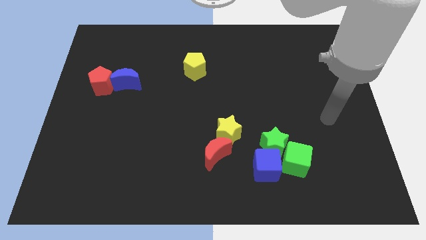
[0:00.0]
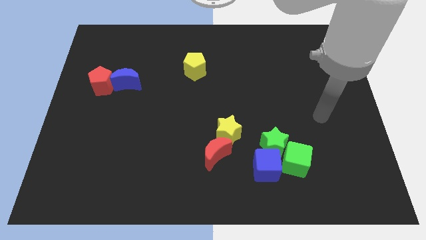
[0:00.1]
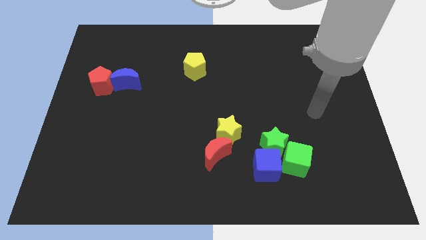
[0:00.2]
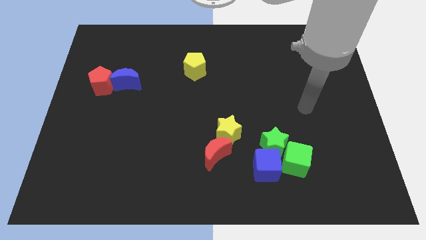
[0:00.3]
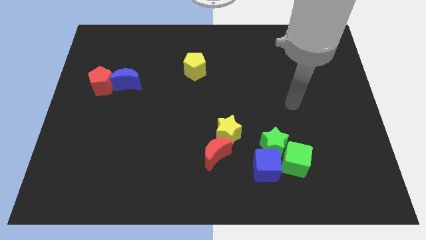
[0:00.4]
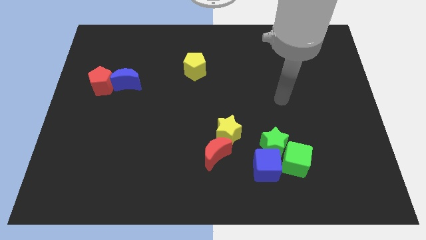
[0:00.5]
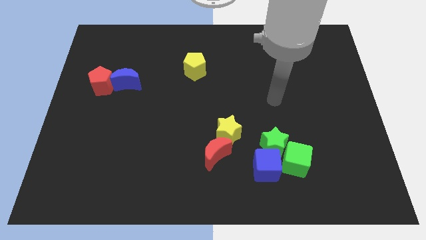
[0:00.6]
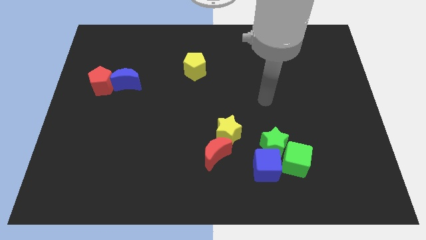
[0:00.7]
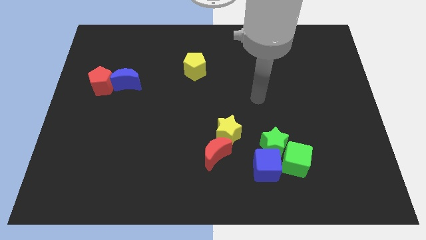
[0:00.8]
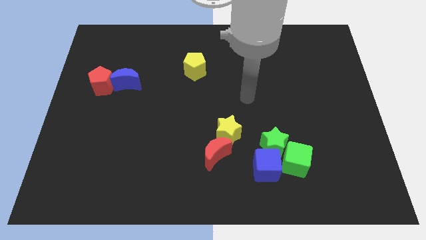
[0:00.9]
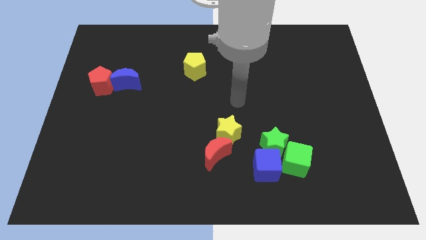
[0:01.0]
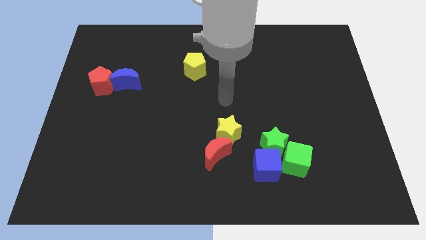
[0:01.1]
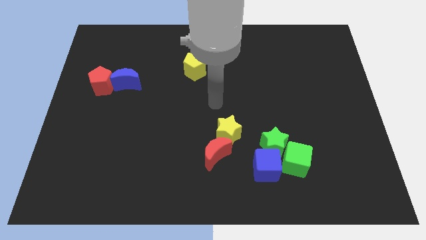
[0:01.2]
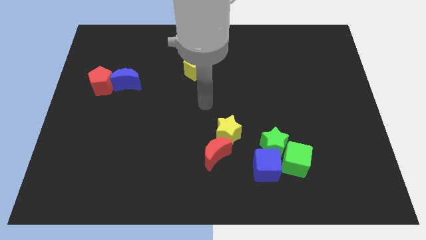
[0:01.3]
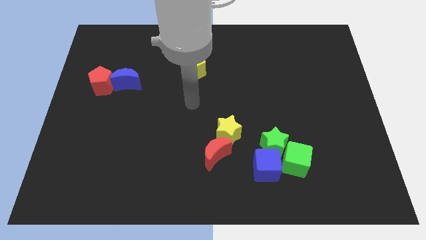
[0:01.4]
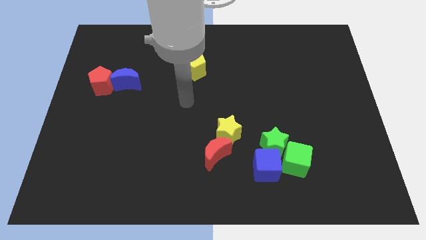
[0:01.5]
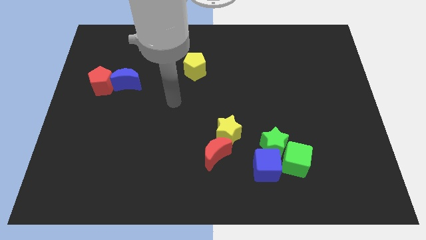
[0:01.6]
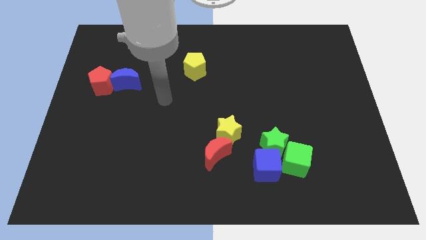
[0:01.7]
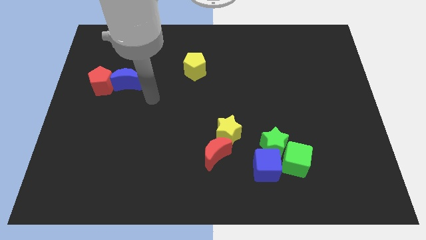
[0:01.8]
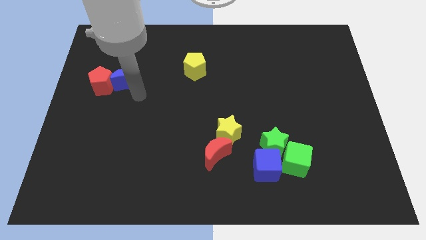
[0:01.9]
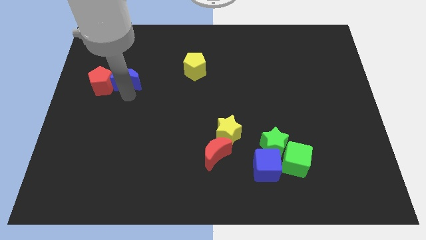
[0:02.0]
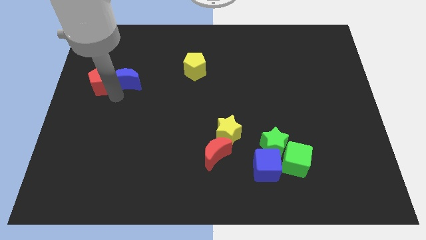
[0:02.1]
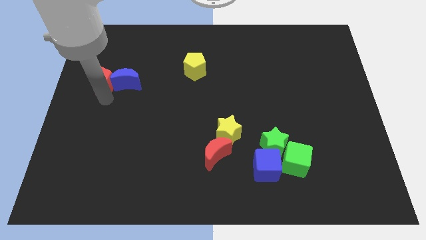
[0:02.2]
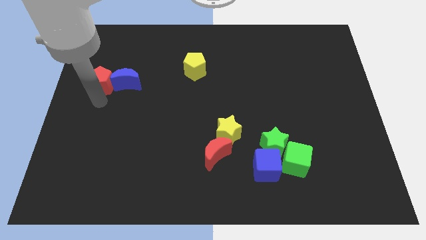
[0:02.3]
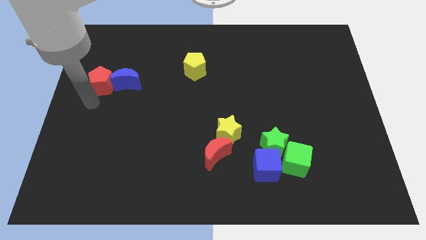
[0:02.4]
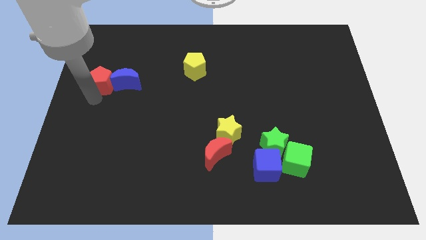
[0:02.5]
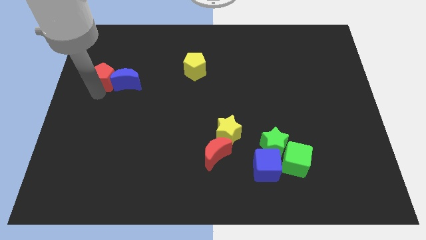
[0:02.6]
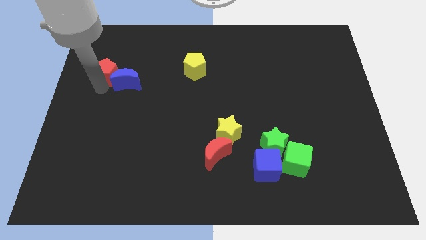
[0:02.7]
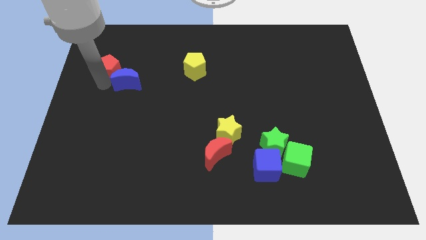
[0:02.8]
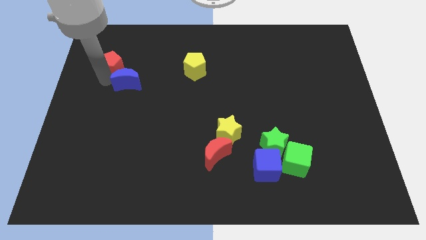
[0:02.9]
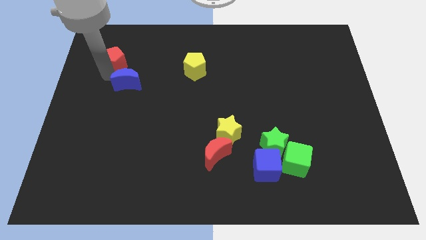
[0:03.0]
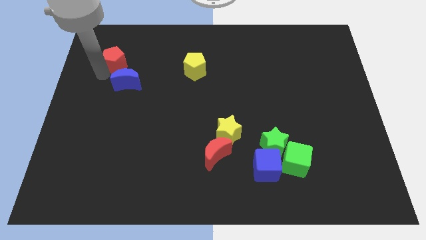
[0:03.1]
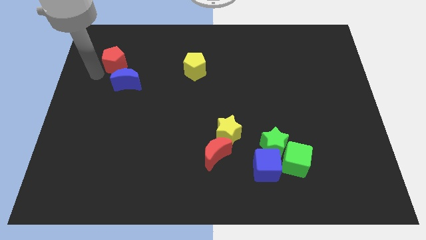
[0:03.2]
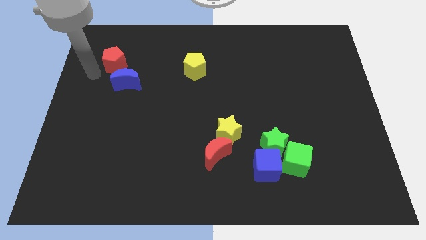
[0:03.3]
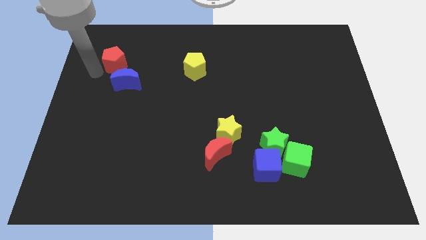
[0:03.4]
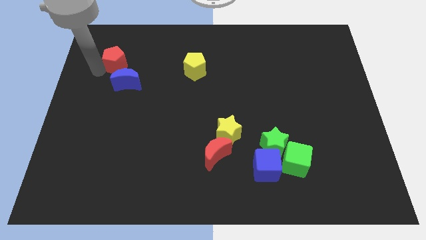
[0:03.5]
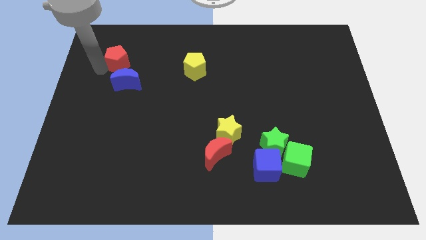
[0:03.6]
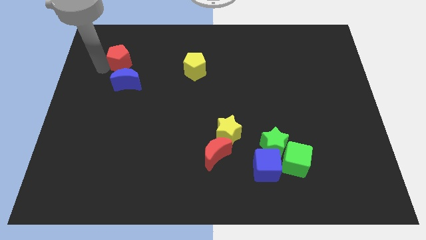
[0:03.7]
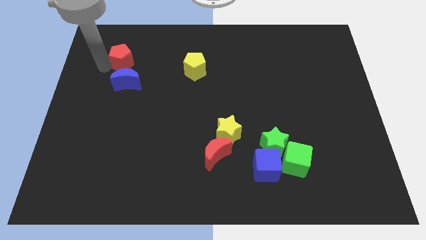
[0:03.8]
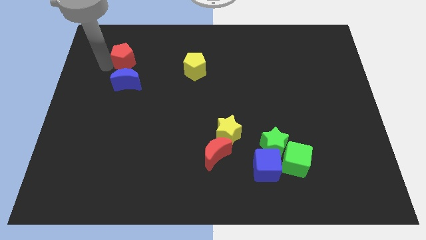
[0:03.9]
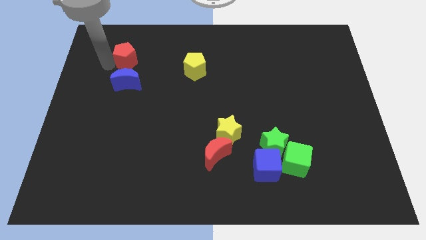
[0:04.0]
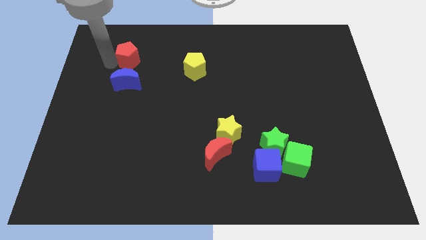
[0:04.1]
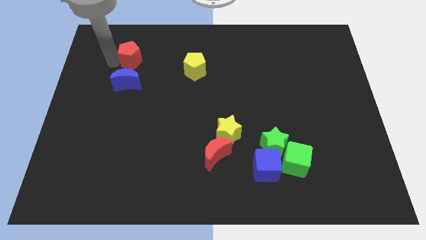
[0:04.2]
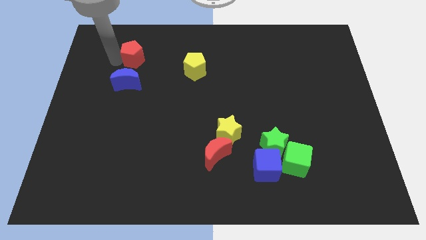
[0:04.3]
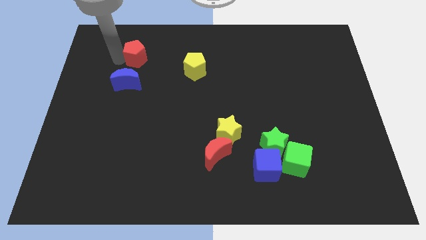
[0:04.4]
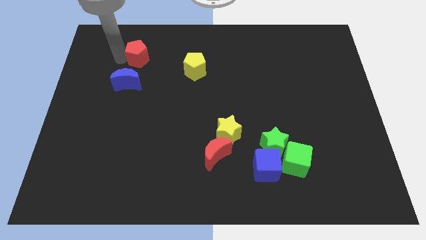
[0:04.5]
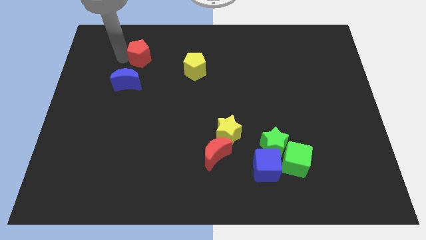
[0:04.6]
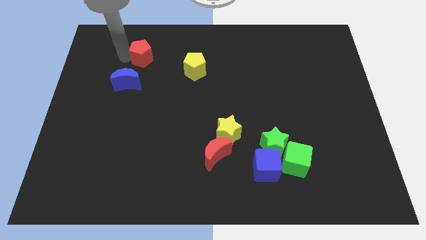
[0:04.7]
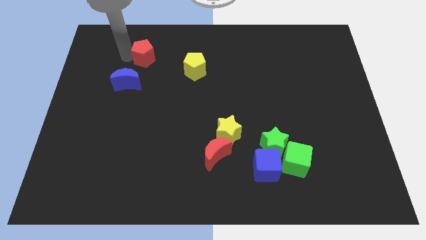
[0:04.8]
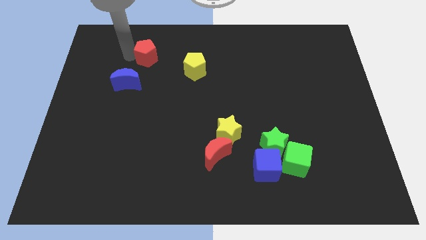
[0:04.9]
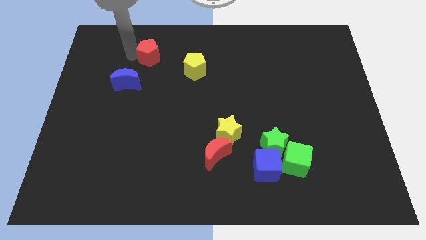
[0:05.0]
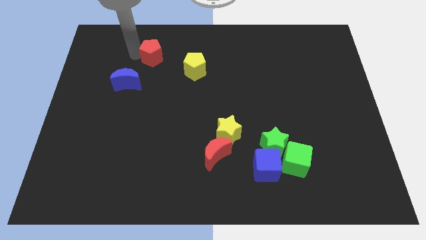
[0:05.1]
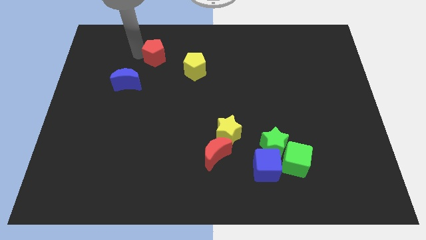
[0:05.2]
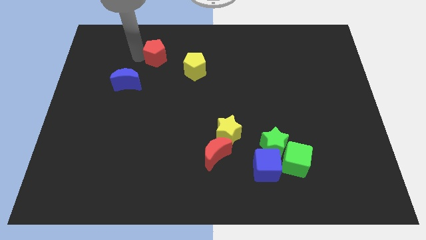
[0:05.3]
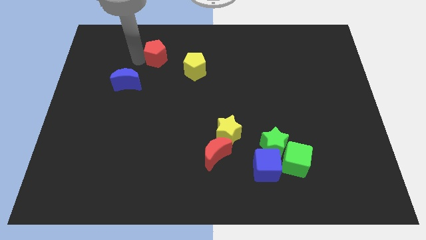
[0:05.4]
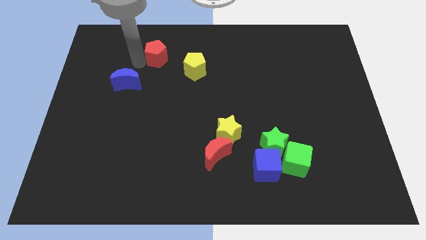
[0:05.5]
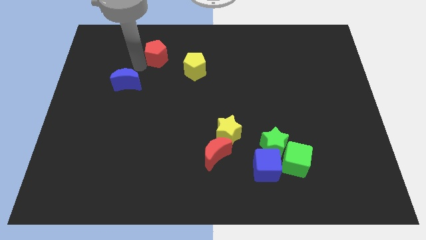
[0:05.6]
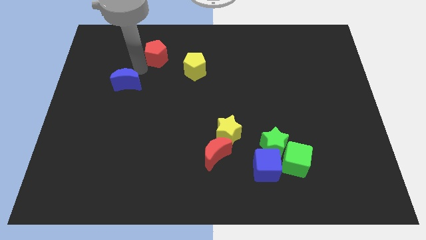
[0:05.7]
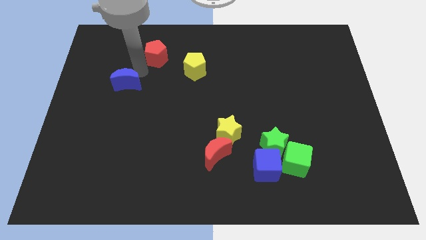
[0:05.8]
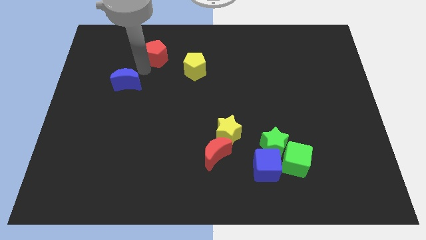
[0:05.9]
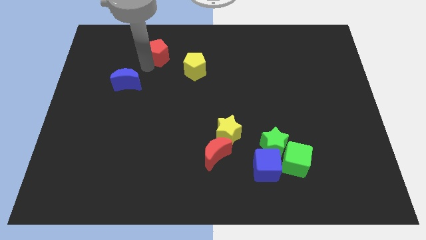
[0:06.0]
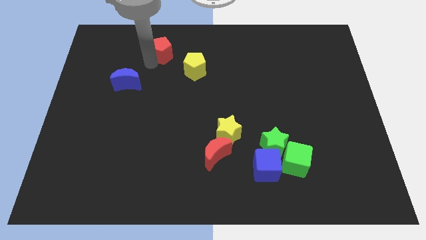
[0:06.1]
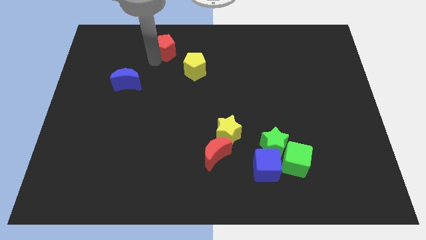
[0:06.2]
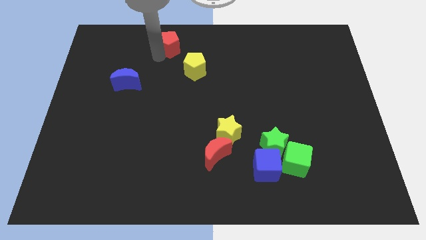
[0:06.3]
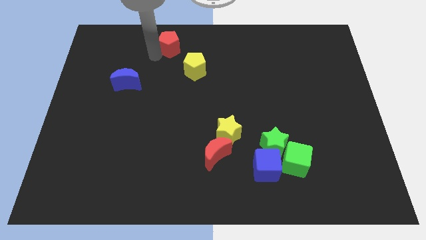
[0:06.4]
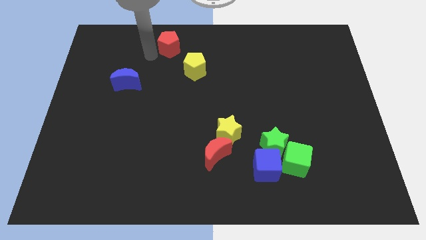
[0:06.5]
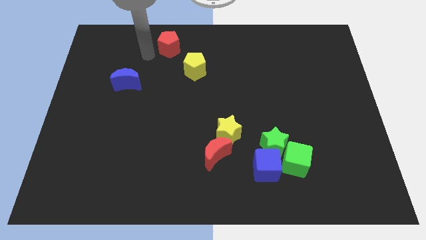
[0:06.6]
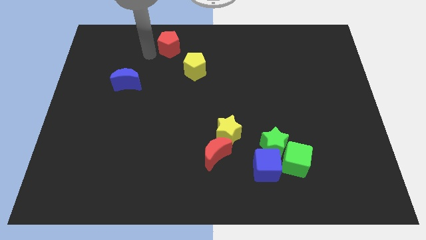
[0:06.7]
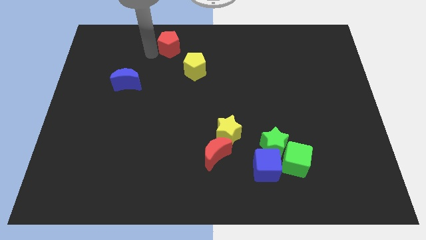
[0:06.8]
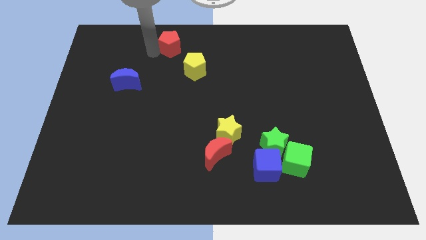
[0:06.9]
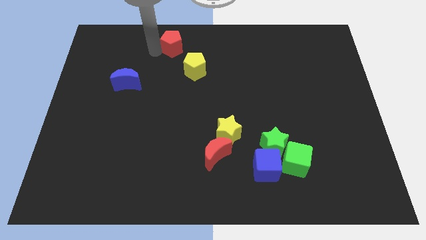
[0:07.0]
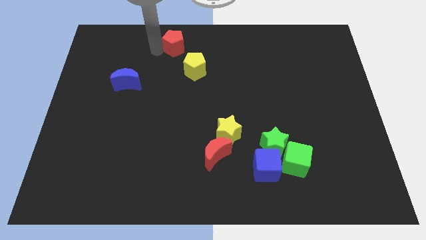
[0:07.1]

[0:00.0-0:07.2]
put the red pentagon to the top side
